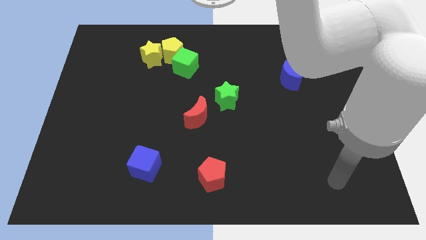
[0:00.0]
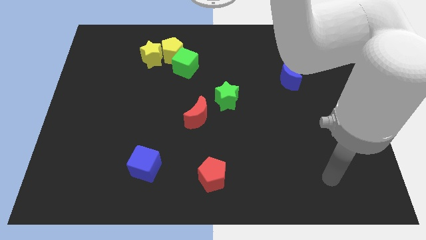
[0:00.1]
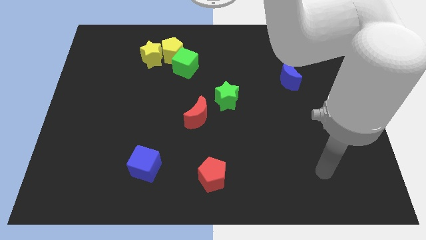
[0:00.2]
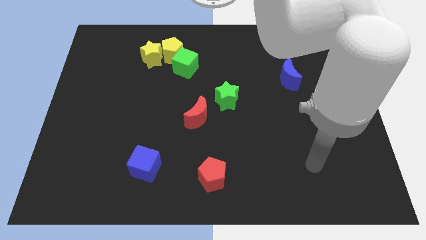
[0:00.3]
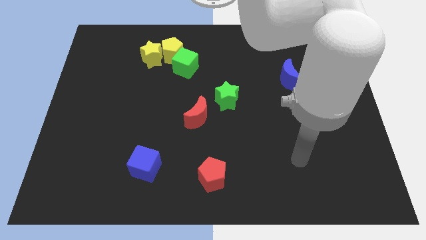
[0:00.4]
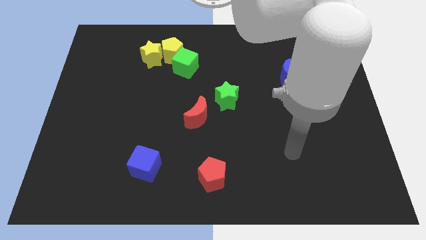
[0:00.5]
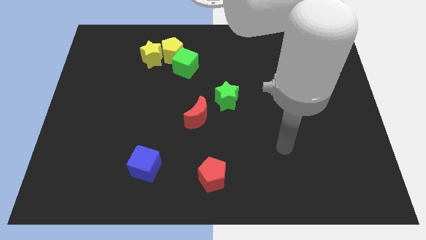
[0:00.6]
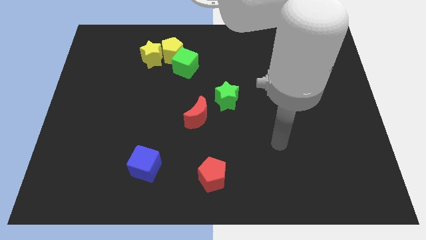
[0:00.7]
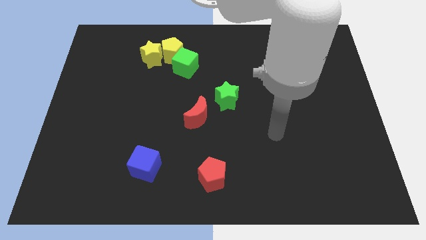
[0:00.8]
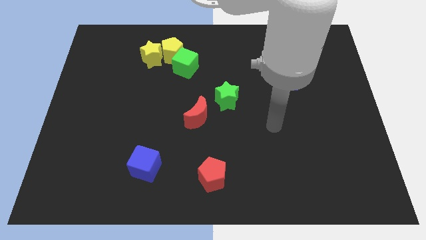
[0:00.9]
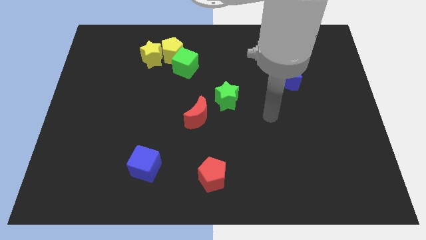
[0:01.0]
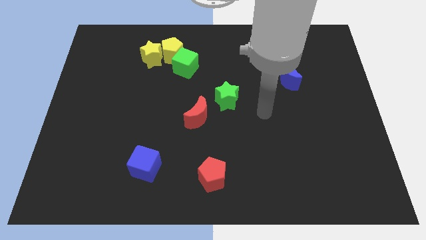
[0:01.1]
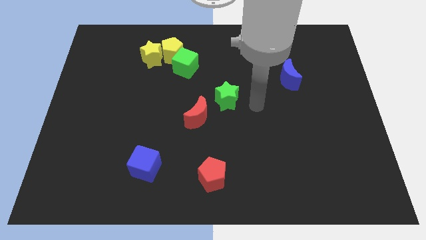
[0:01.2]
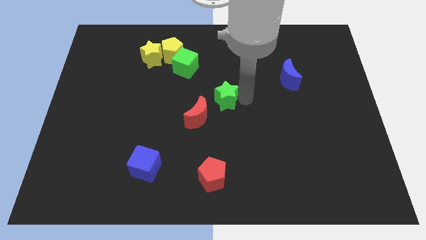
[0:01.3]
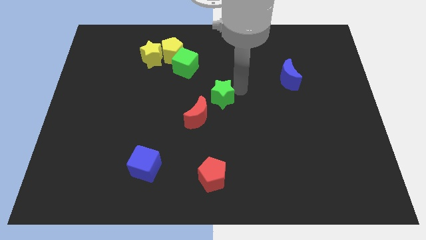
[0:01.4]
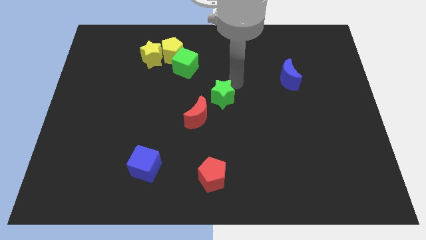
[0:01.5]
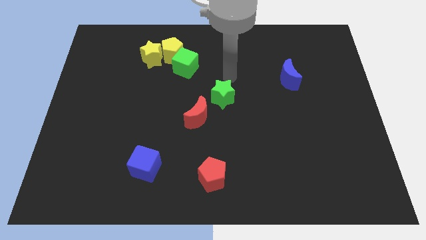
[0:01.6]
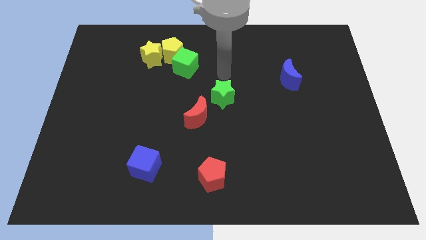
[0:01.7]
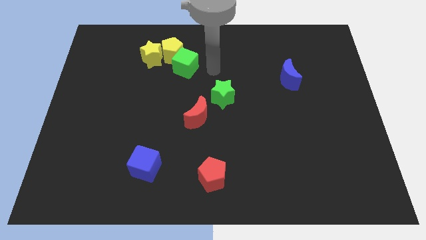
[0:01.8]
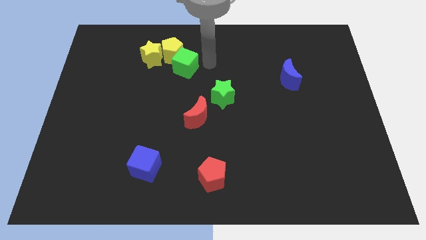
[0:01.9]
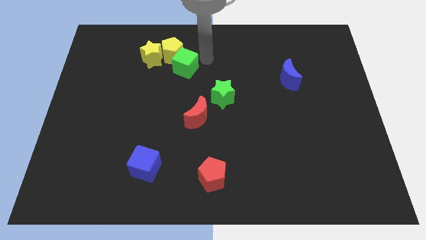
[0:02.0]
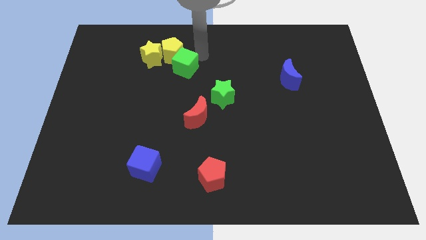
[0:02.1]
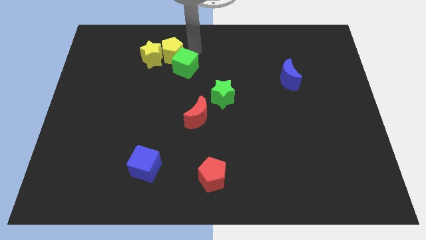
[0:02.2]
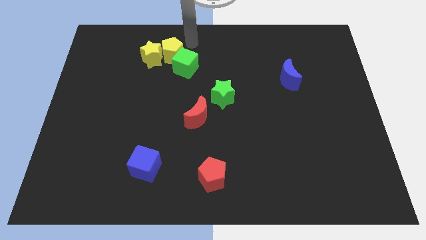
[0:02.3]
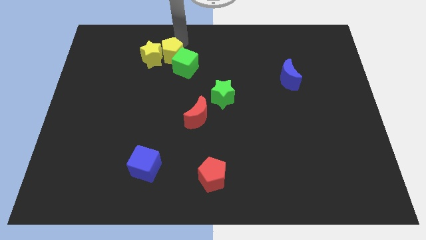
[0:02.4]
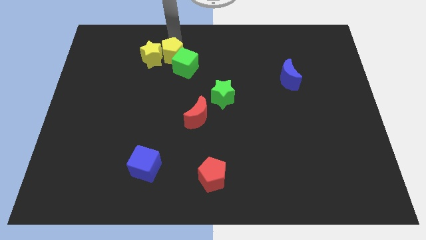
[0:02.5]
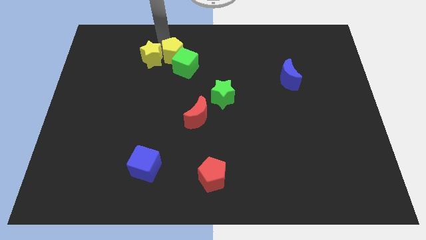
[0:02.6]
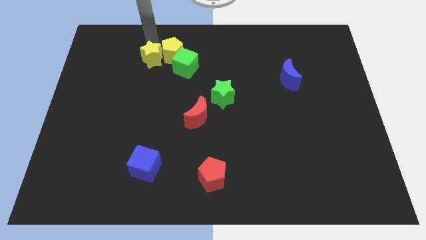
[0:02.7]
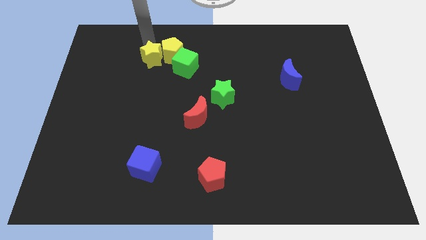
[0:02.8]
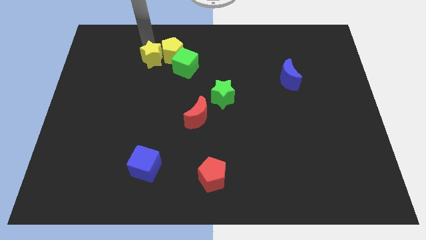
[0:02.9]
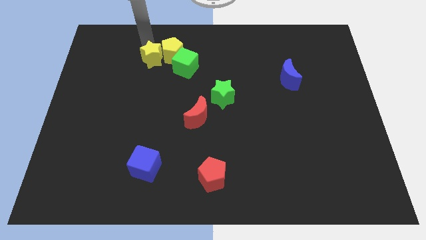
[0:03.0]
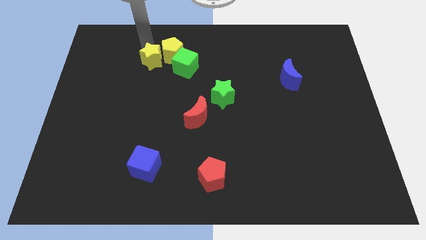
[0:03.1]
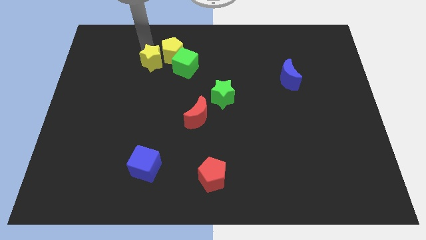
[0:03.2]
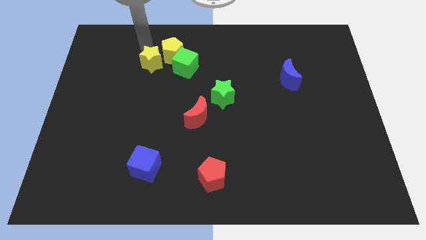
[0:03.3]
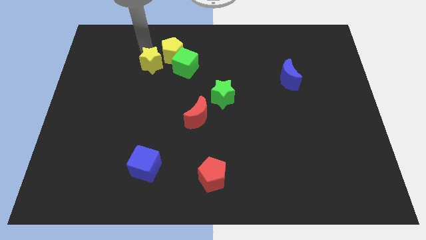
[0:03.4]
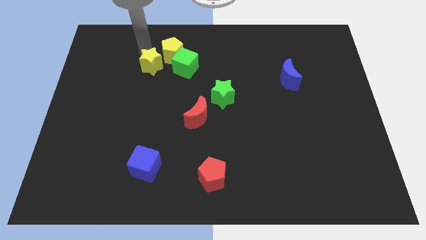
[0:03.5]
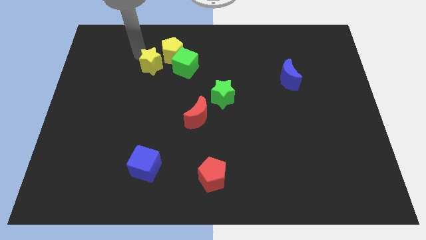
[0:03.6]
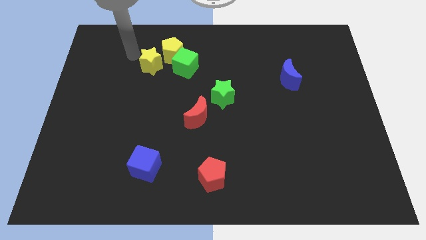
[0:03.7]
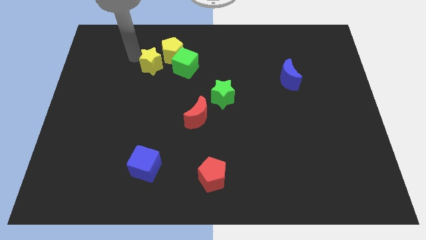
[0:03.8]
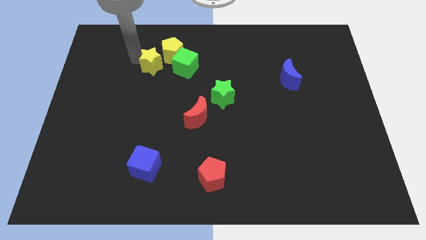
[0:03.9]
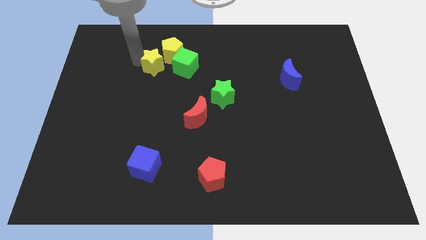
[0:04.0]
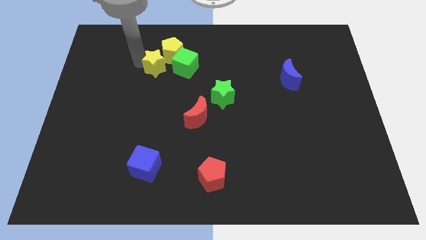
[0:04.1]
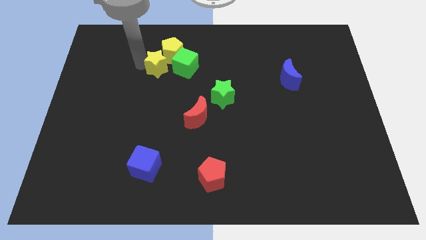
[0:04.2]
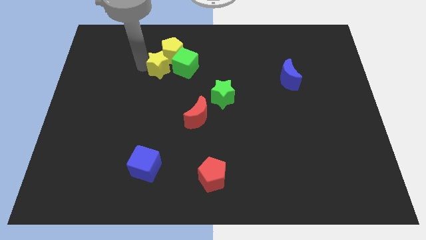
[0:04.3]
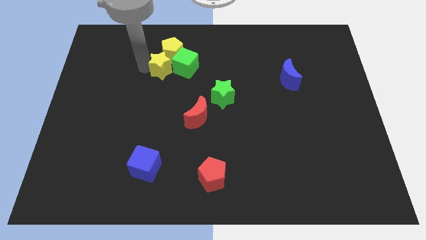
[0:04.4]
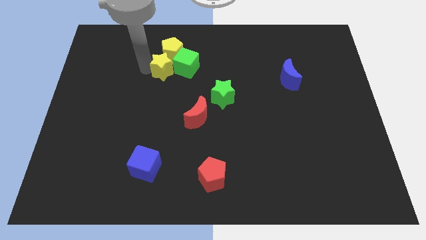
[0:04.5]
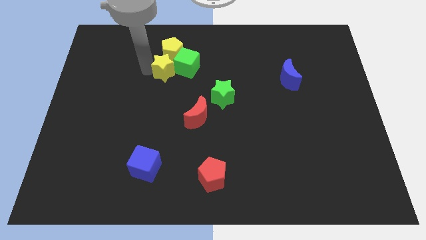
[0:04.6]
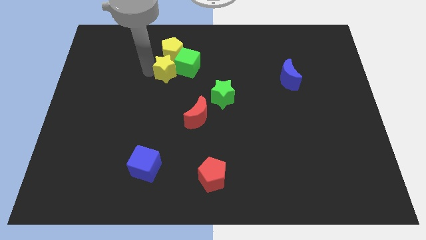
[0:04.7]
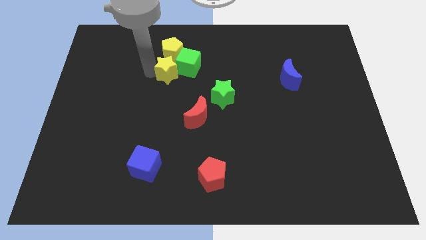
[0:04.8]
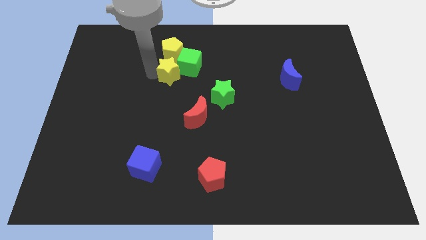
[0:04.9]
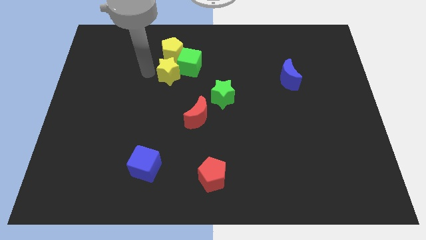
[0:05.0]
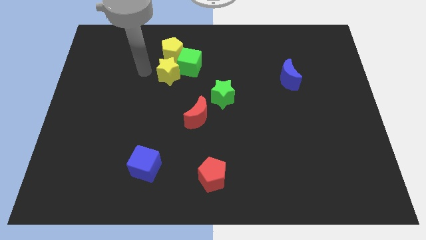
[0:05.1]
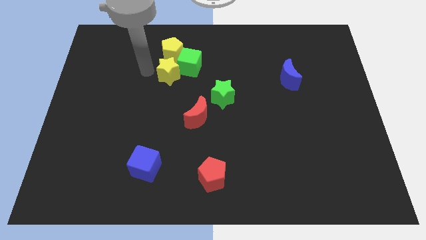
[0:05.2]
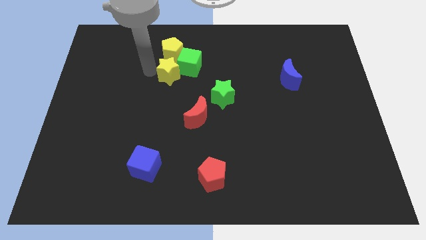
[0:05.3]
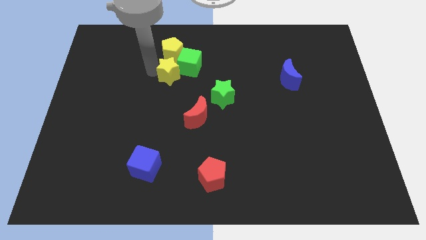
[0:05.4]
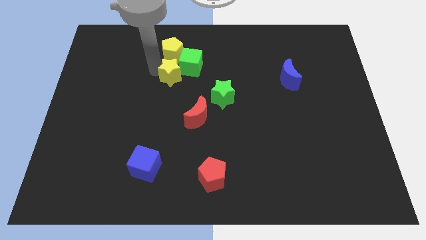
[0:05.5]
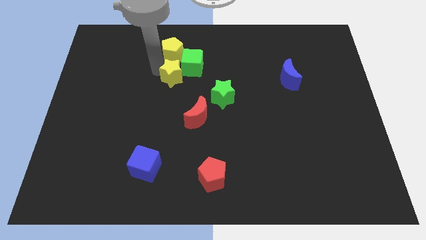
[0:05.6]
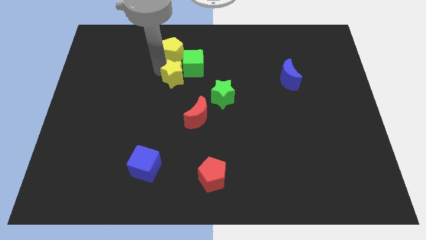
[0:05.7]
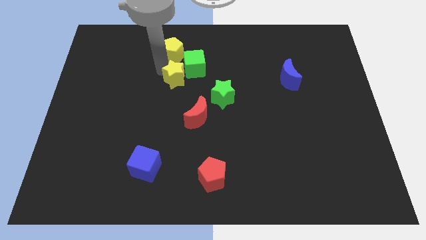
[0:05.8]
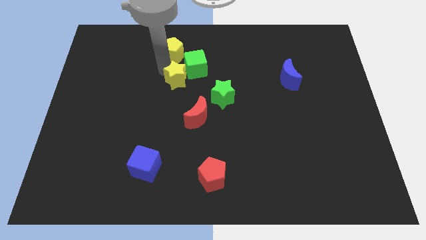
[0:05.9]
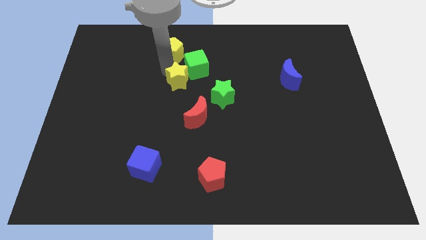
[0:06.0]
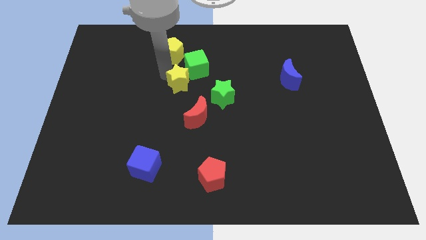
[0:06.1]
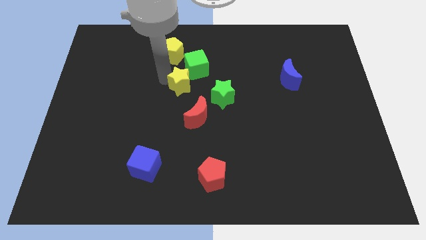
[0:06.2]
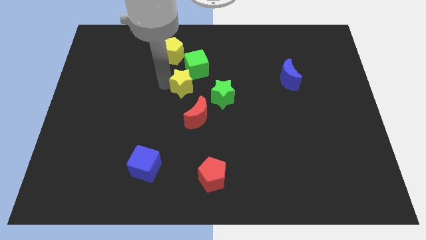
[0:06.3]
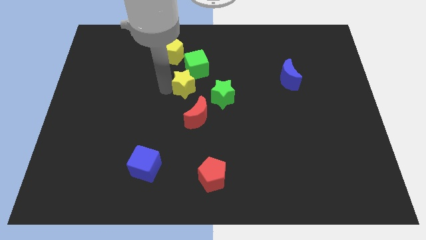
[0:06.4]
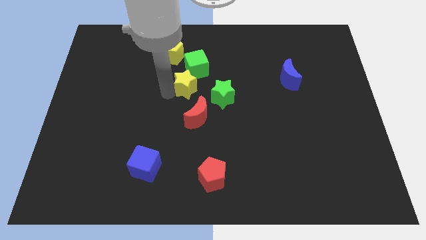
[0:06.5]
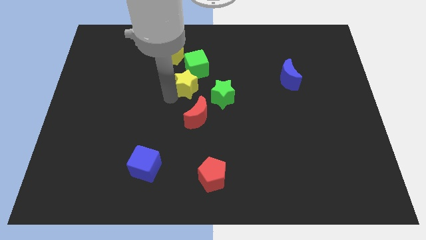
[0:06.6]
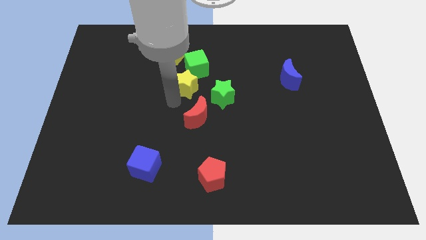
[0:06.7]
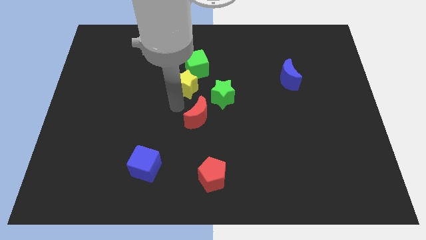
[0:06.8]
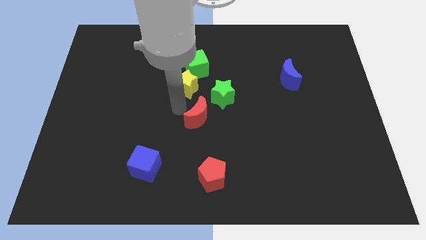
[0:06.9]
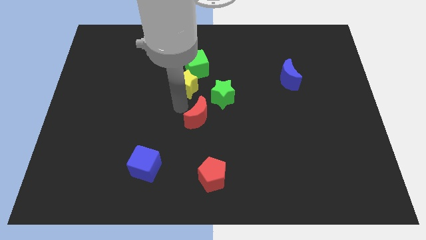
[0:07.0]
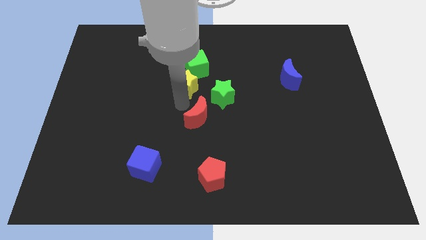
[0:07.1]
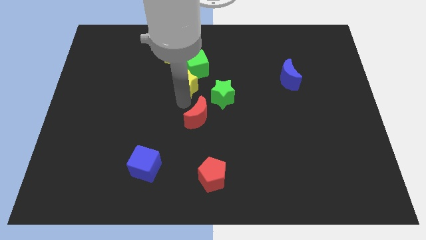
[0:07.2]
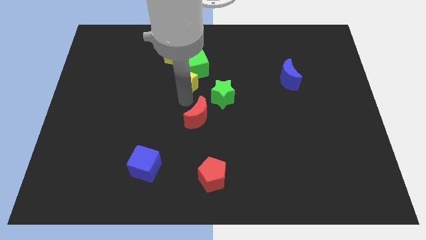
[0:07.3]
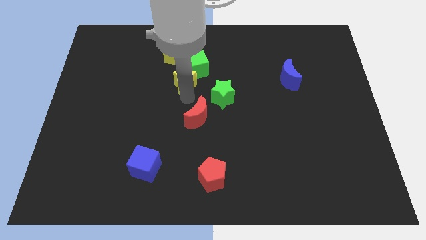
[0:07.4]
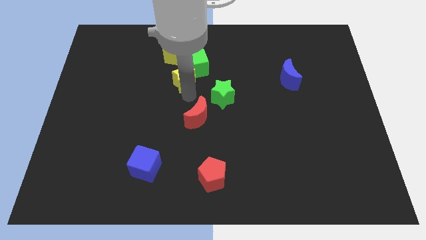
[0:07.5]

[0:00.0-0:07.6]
slide the yellow star to the bottom right of the yellow pentagon
